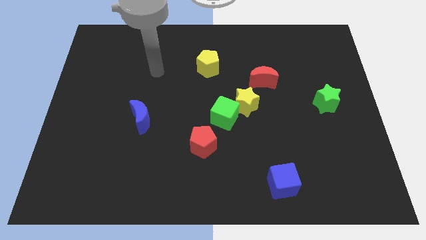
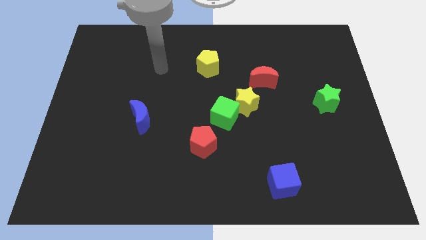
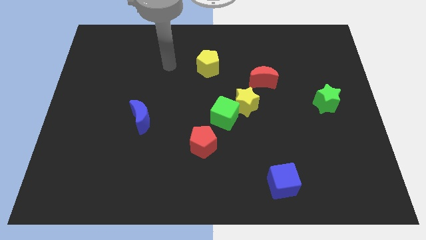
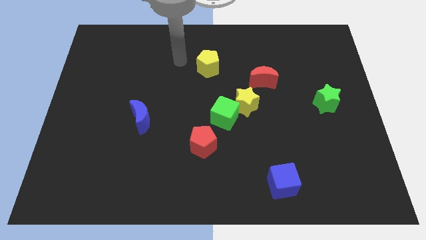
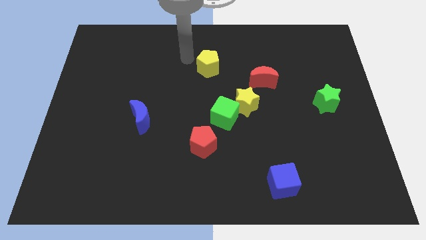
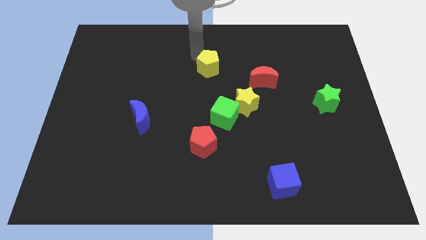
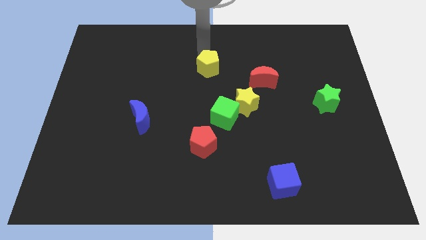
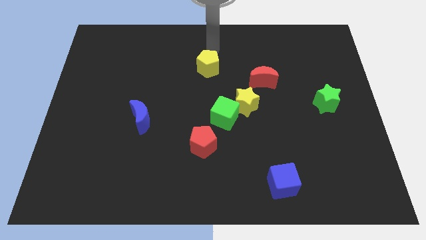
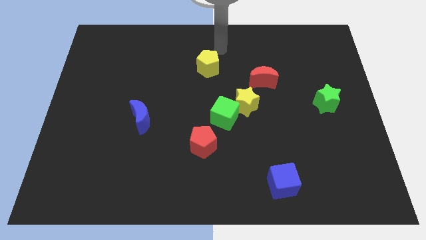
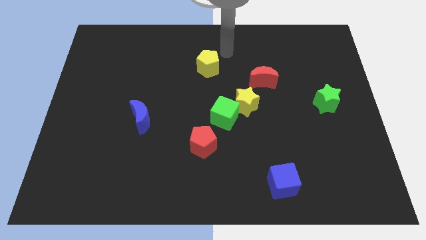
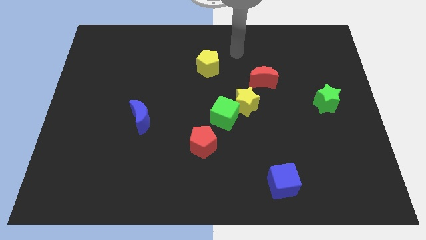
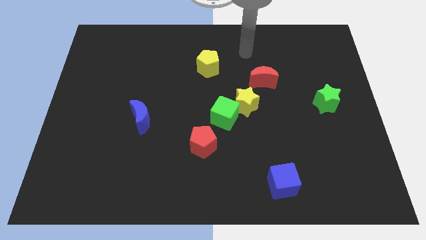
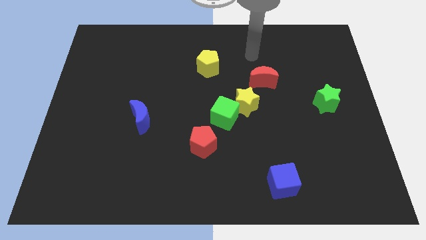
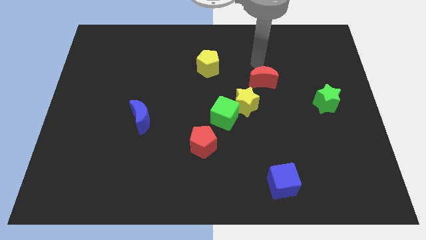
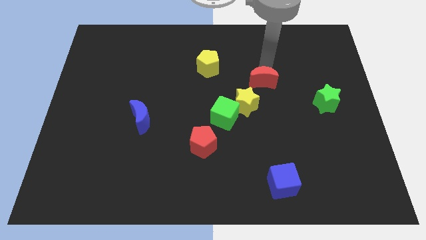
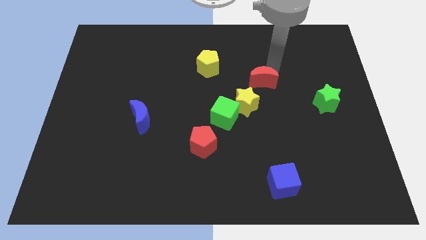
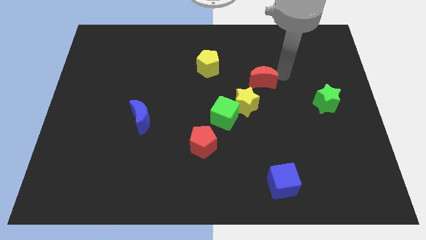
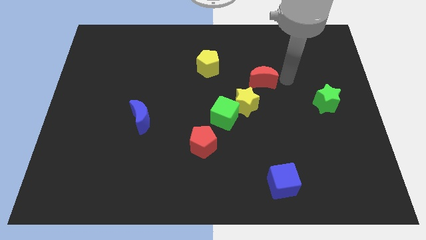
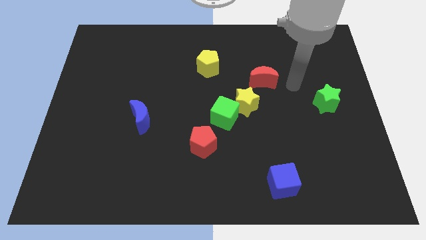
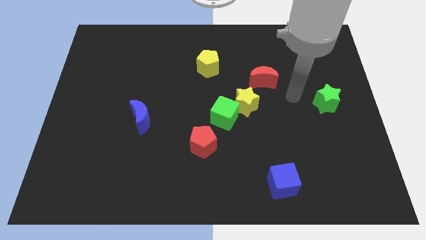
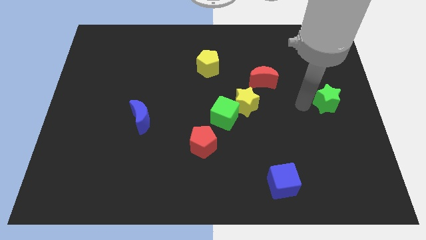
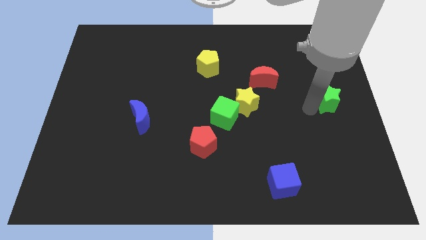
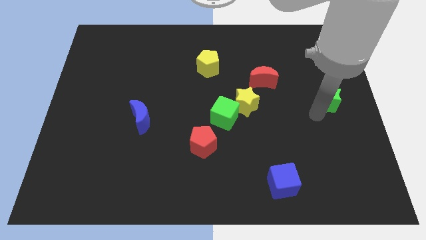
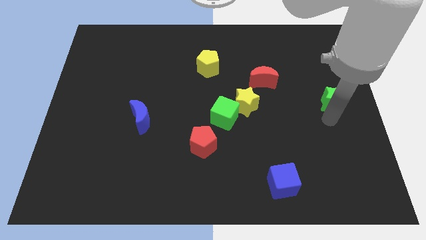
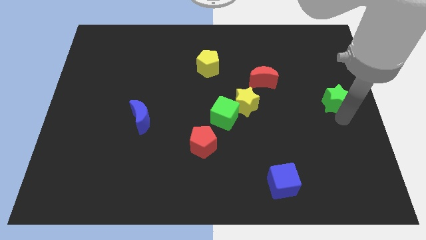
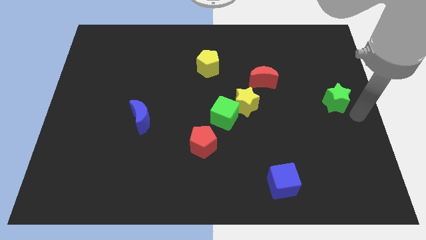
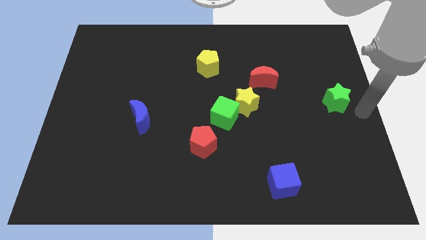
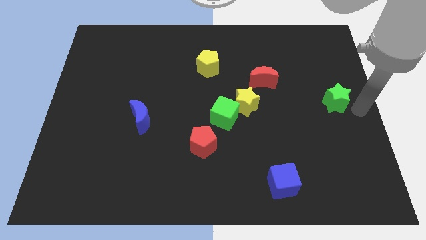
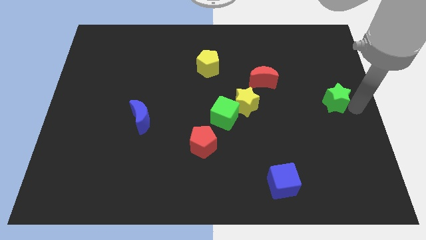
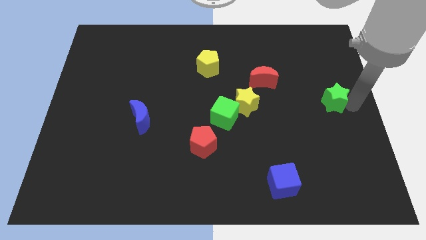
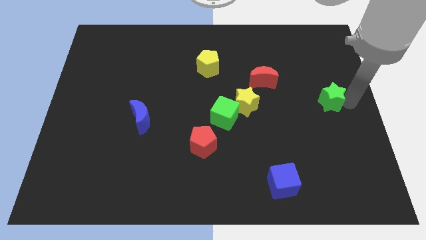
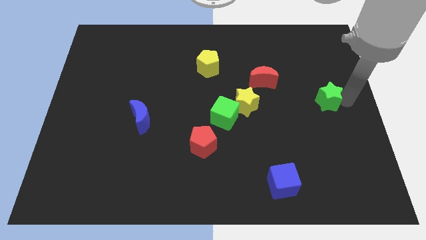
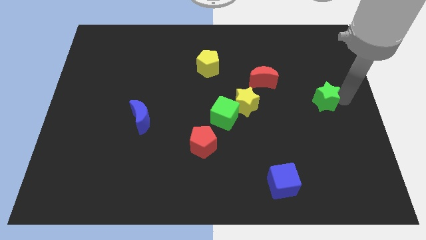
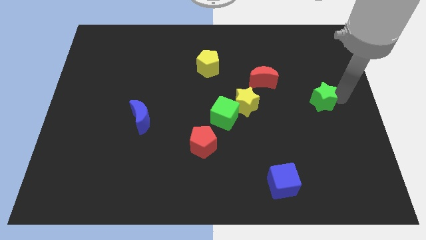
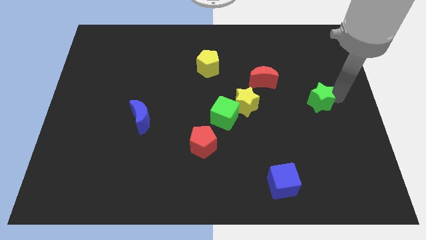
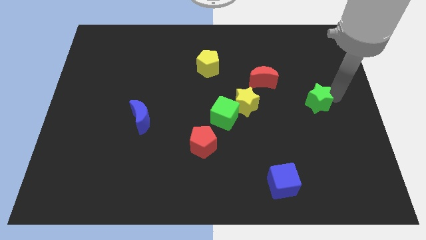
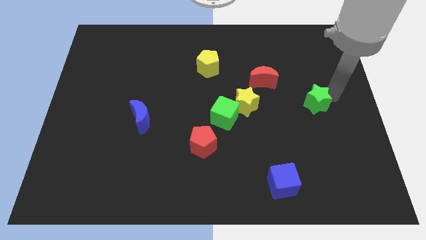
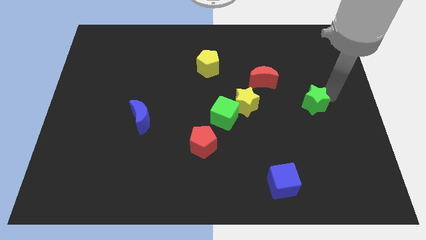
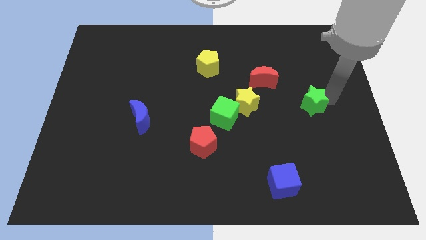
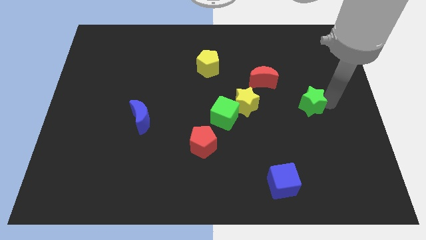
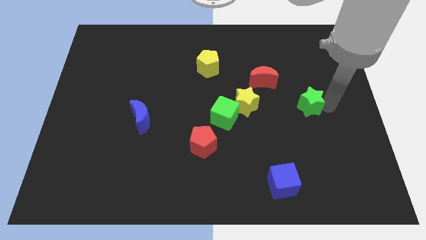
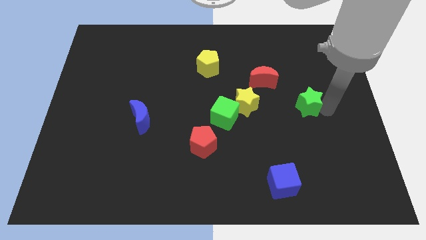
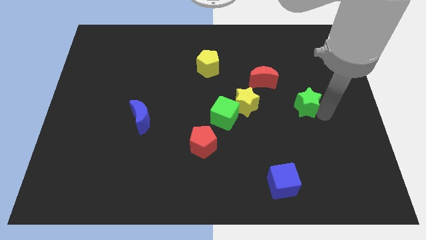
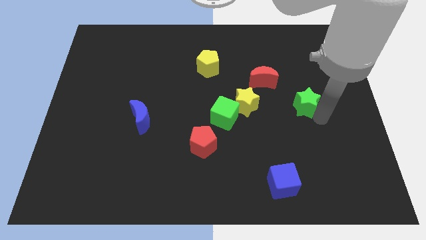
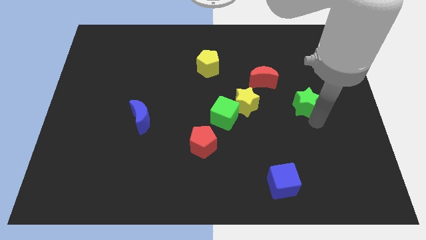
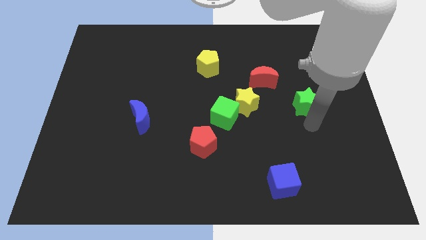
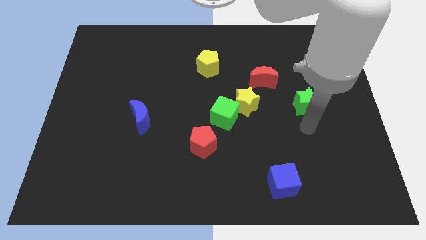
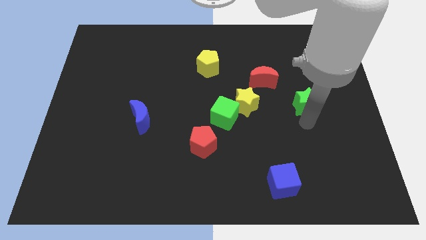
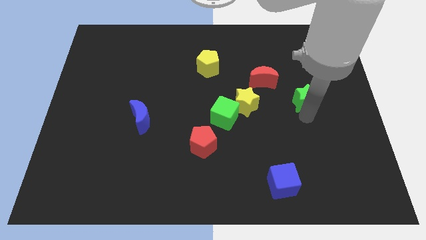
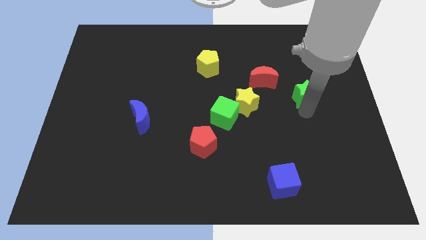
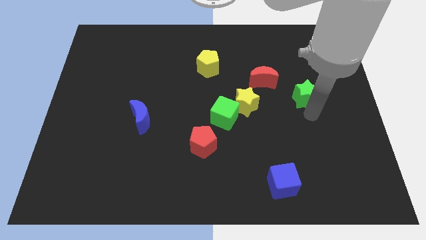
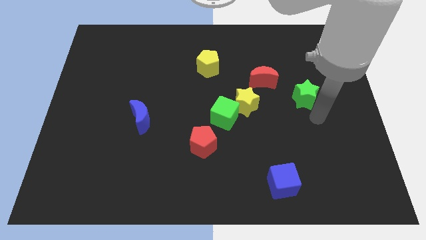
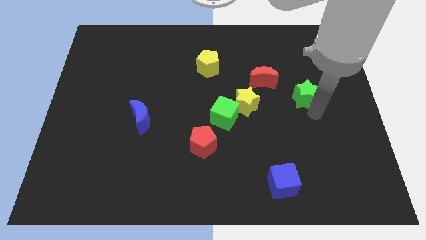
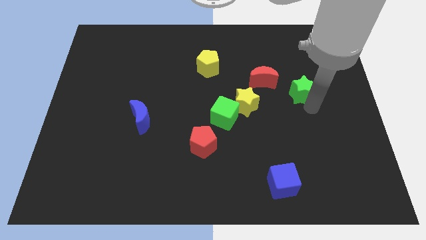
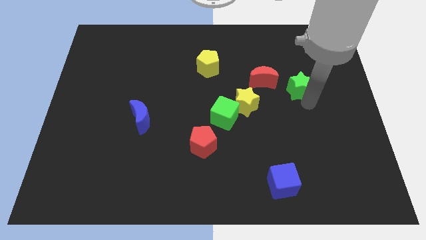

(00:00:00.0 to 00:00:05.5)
push the green star diagonally up and to the left somewhat

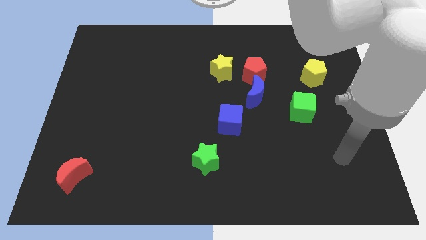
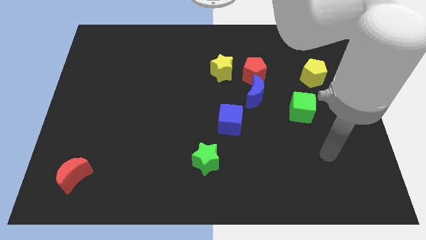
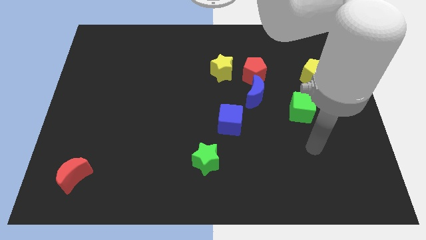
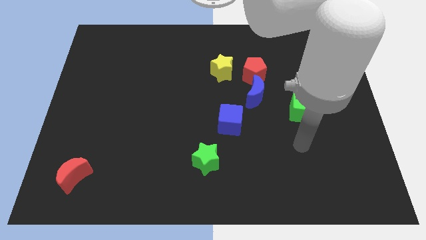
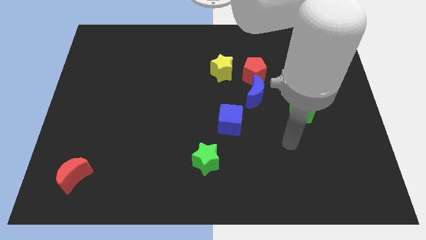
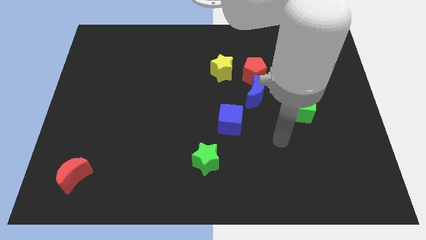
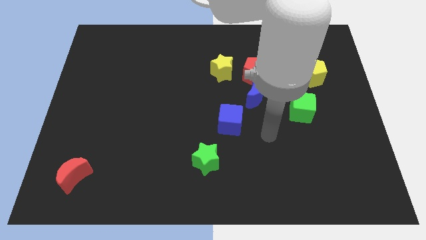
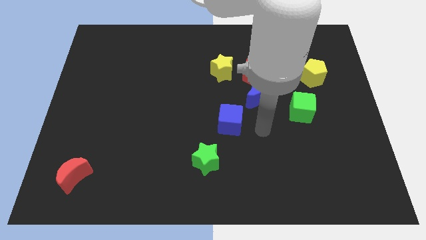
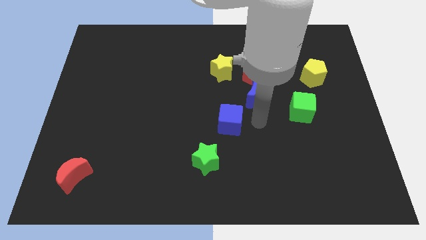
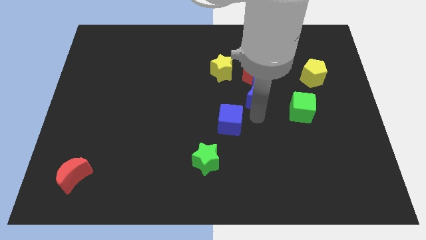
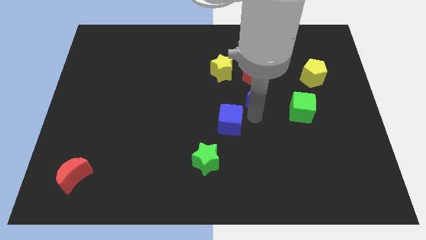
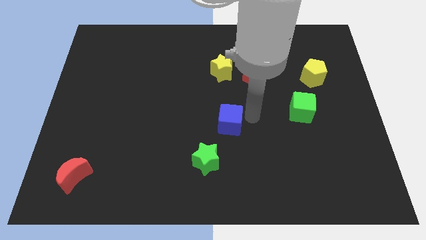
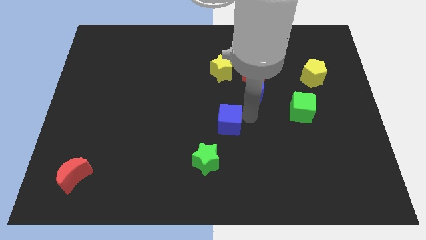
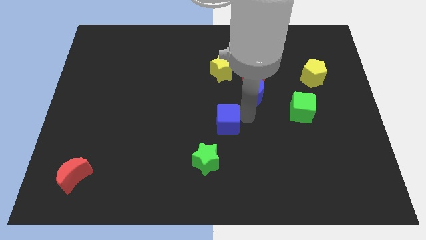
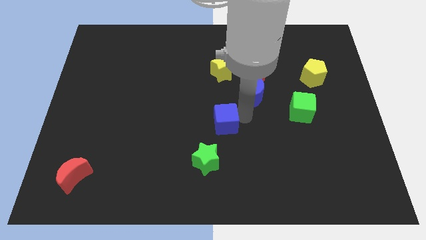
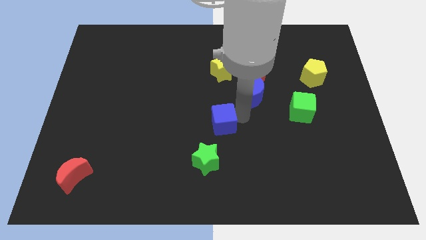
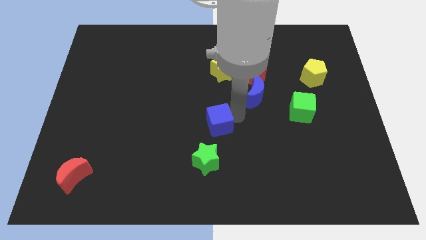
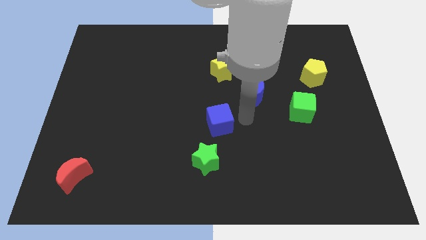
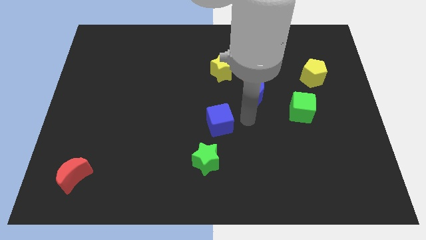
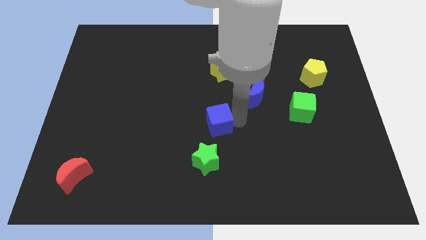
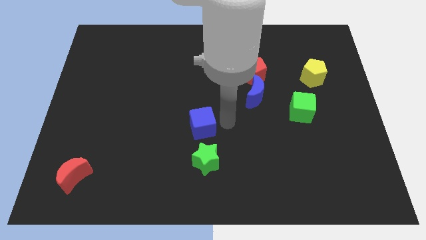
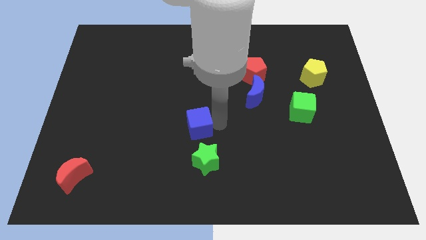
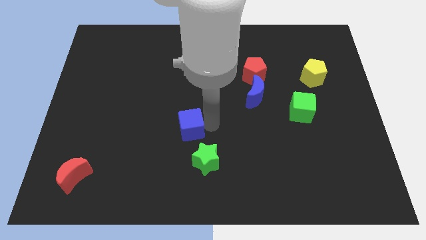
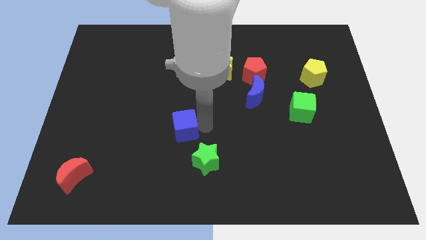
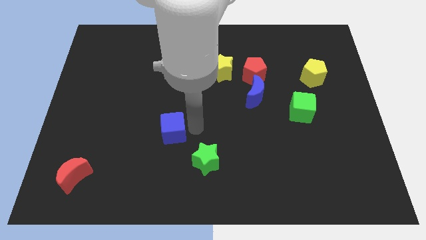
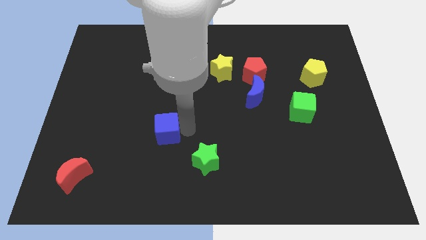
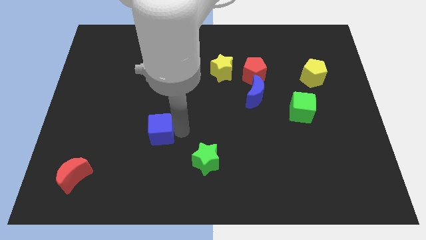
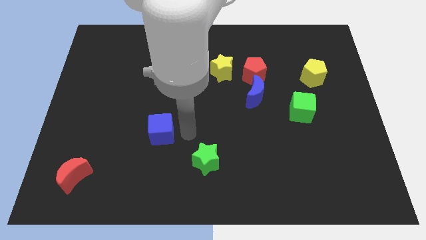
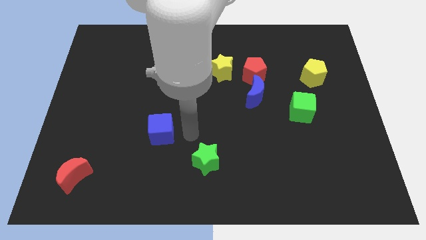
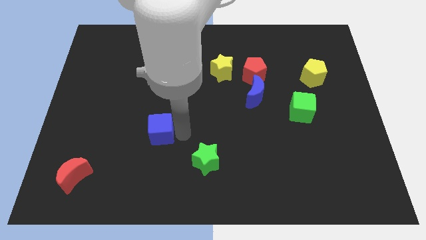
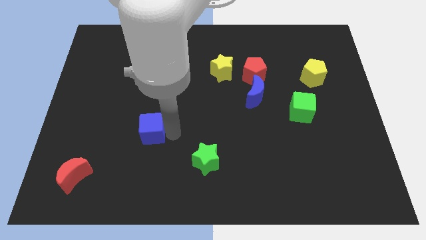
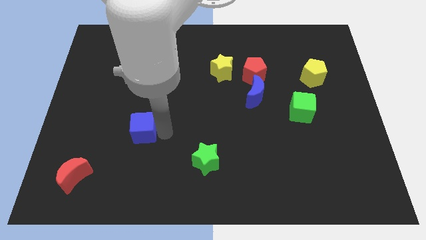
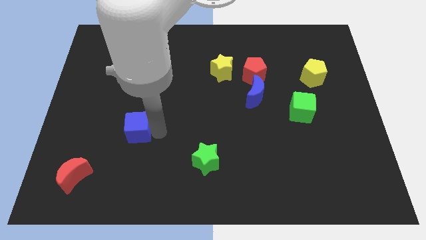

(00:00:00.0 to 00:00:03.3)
slide the blue cube left
